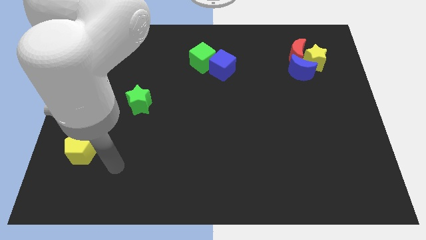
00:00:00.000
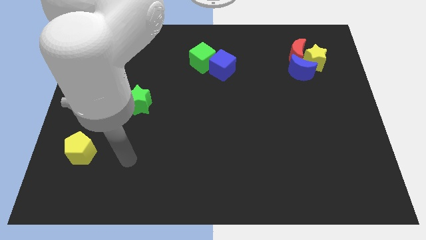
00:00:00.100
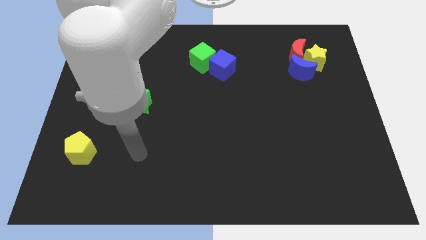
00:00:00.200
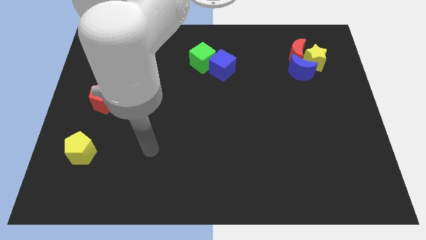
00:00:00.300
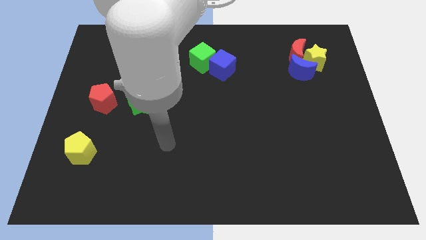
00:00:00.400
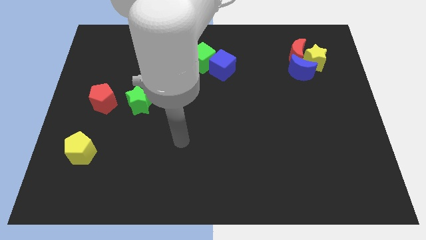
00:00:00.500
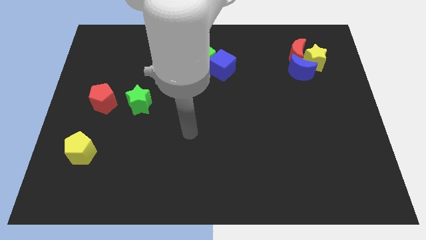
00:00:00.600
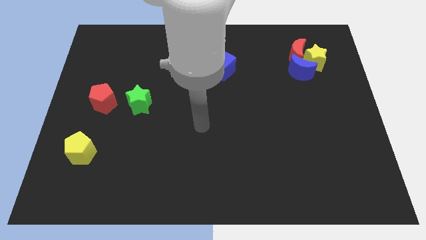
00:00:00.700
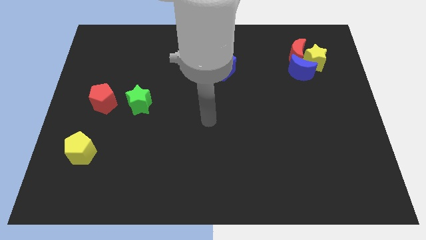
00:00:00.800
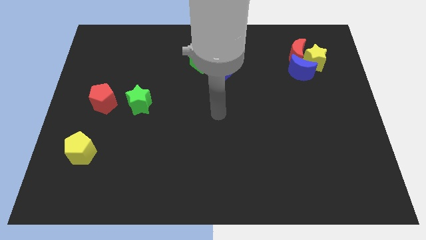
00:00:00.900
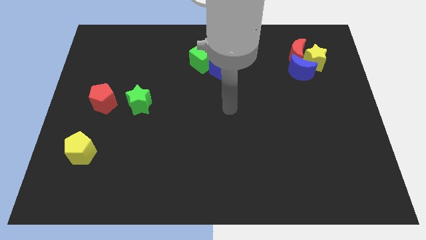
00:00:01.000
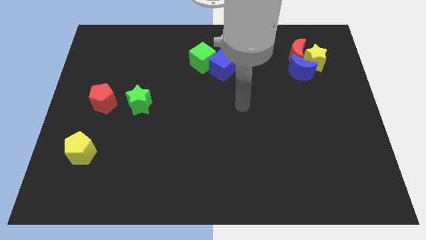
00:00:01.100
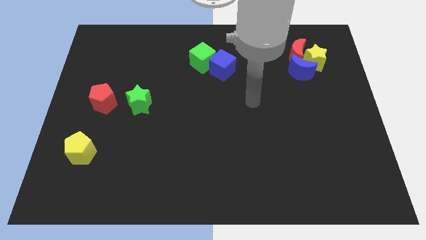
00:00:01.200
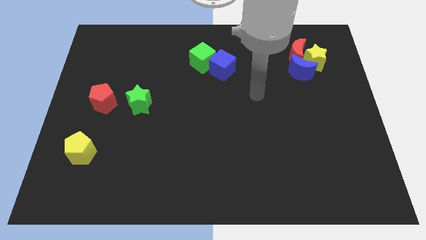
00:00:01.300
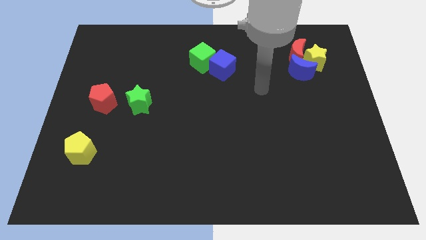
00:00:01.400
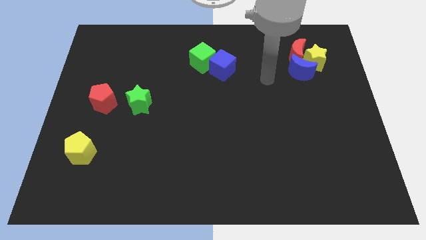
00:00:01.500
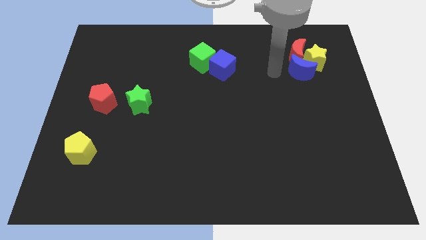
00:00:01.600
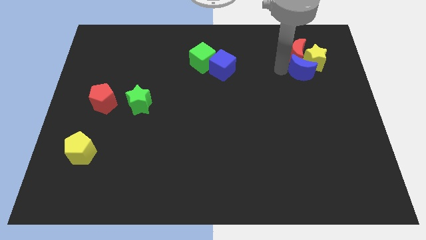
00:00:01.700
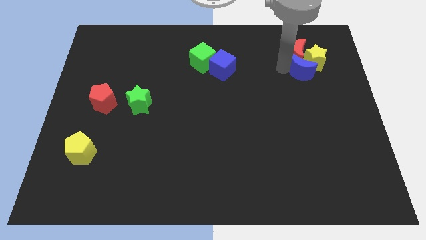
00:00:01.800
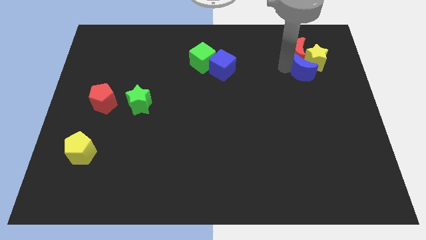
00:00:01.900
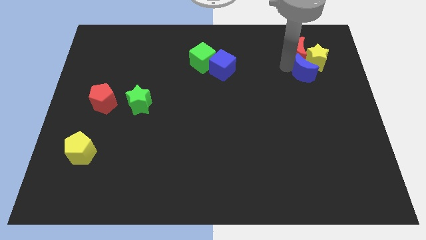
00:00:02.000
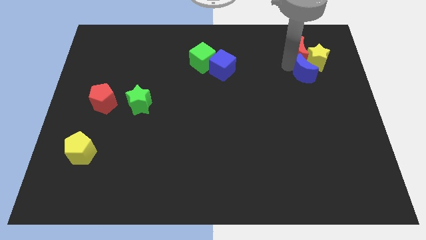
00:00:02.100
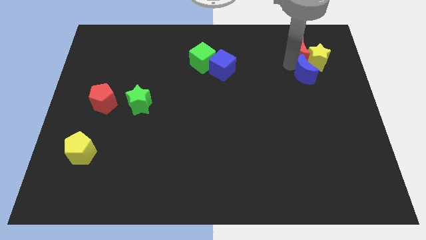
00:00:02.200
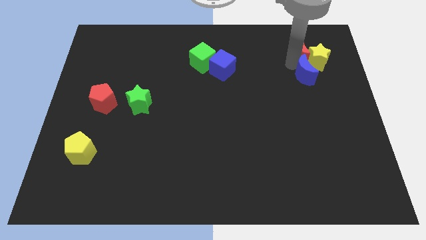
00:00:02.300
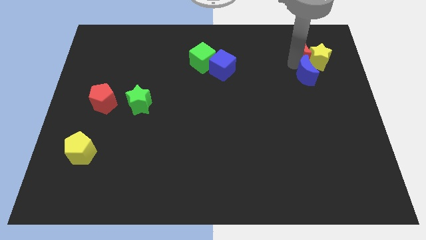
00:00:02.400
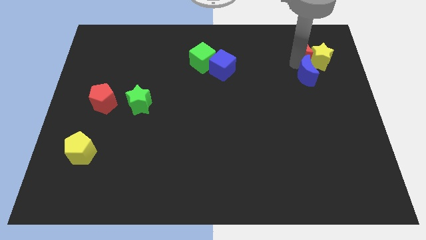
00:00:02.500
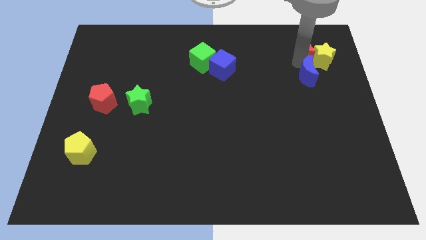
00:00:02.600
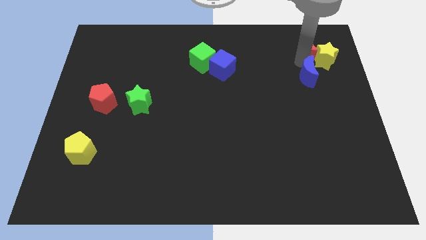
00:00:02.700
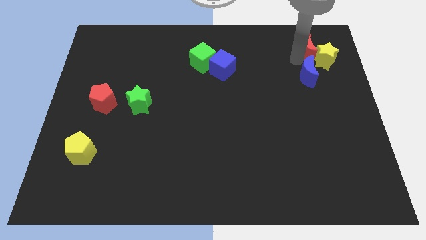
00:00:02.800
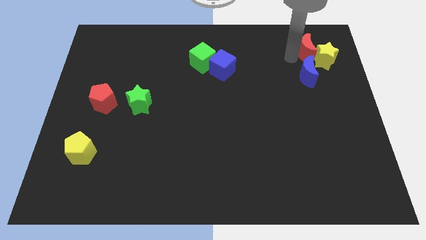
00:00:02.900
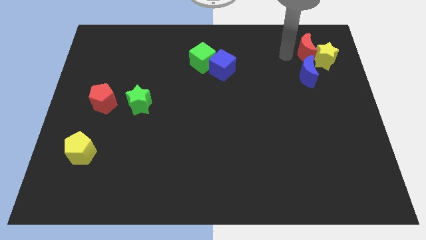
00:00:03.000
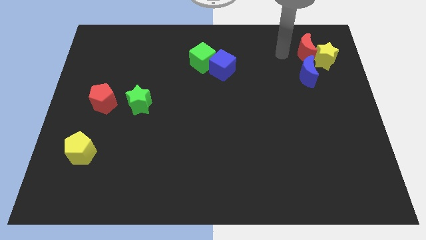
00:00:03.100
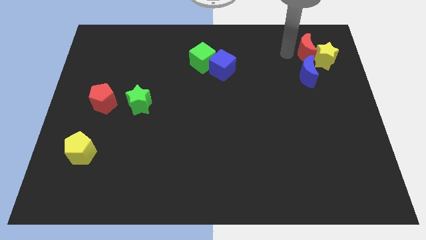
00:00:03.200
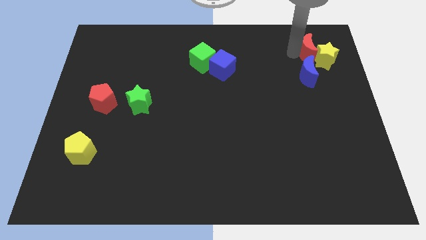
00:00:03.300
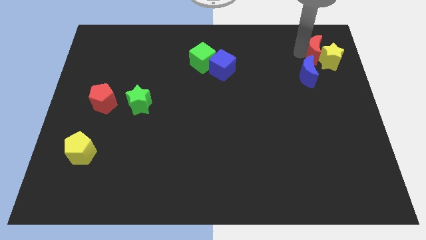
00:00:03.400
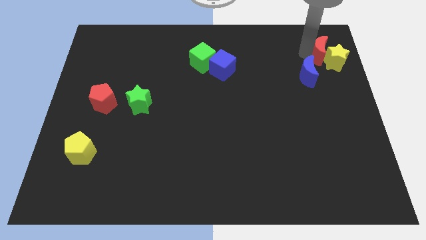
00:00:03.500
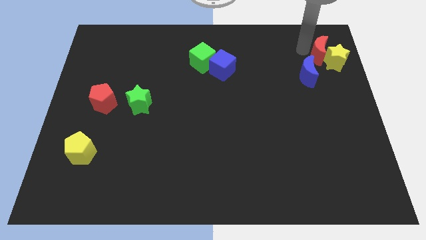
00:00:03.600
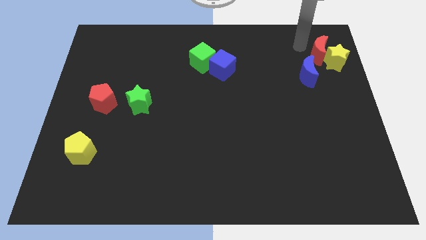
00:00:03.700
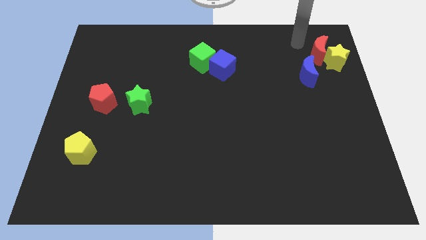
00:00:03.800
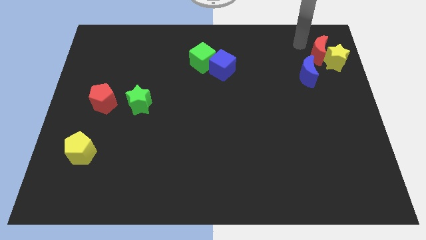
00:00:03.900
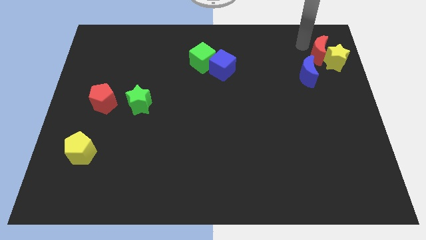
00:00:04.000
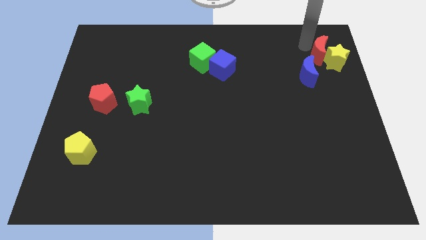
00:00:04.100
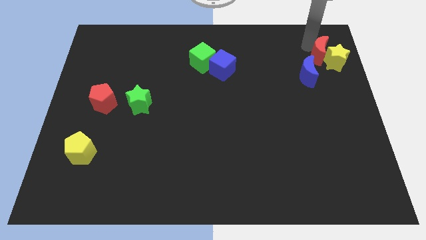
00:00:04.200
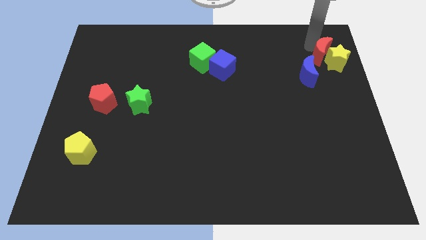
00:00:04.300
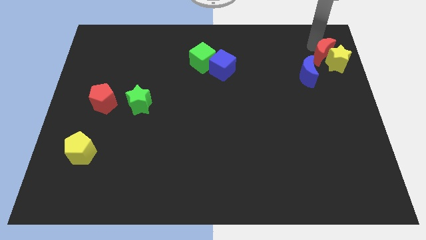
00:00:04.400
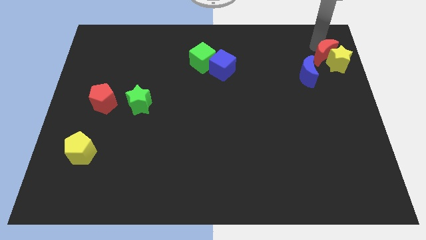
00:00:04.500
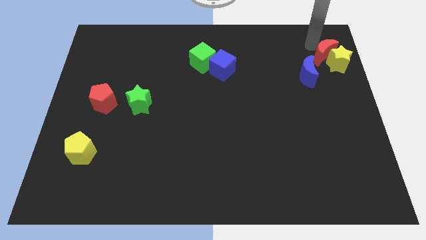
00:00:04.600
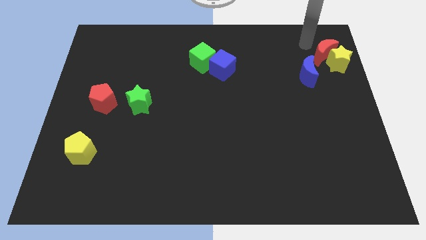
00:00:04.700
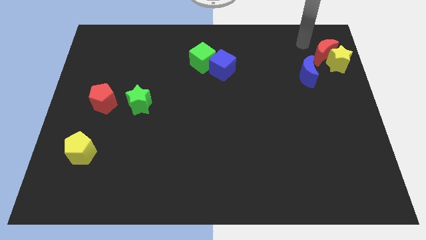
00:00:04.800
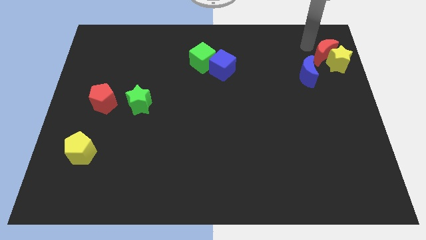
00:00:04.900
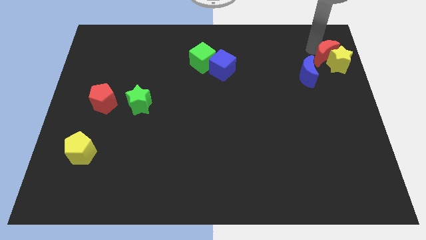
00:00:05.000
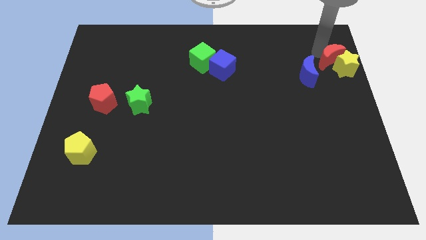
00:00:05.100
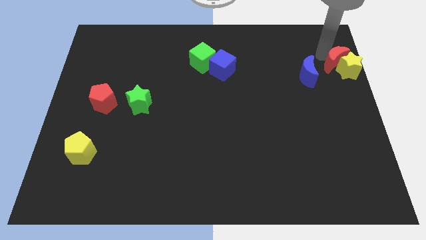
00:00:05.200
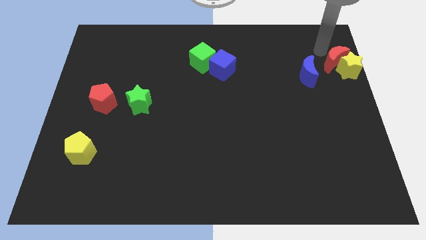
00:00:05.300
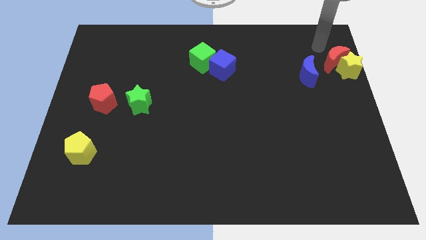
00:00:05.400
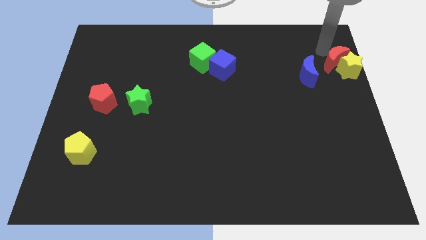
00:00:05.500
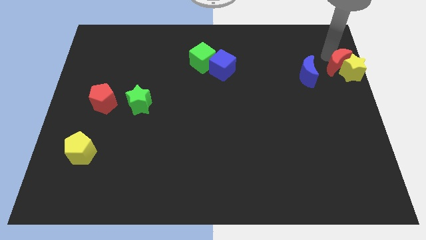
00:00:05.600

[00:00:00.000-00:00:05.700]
push the red moon to the right side of the board
